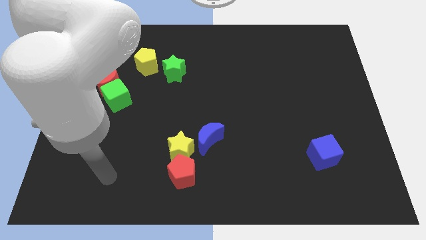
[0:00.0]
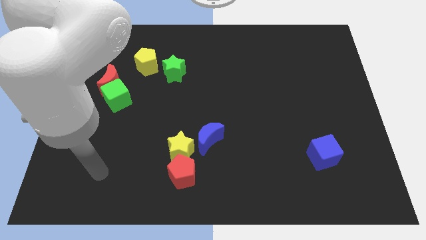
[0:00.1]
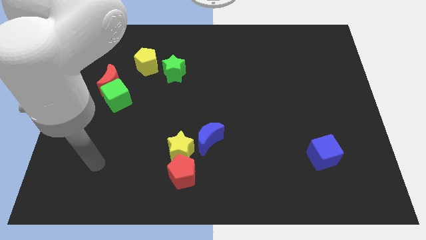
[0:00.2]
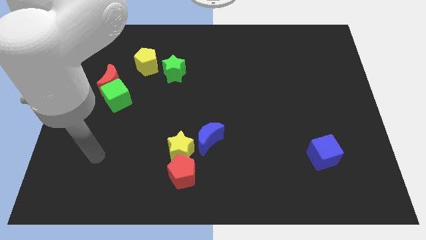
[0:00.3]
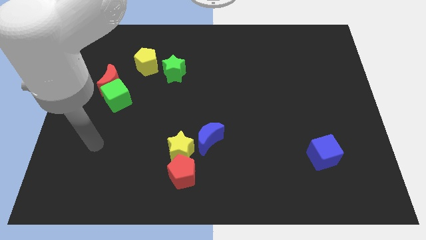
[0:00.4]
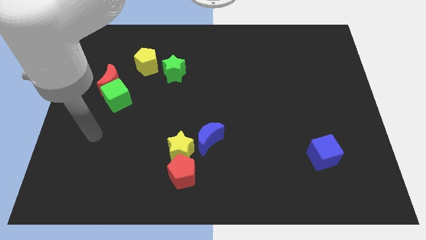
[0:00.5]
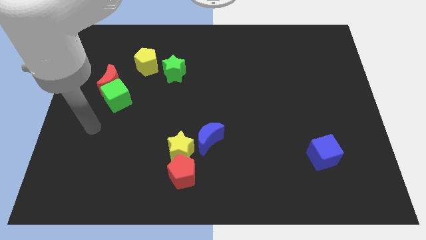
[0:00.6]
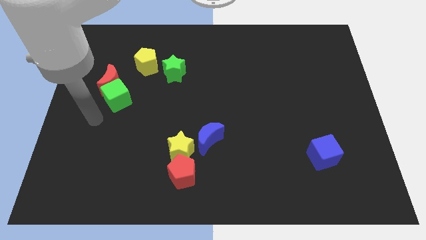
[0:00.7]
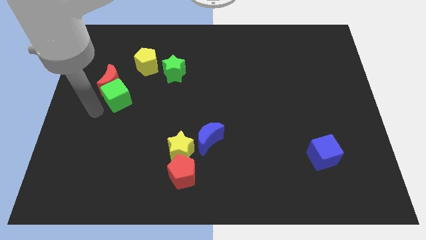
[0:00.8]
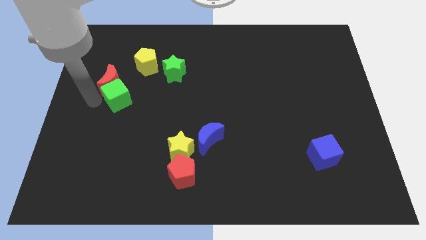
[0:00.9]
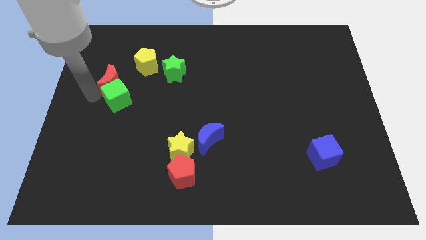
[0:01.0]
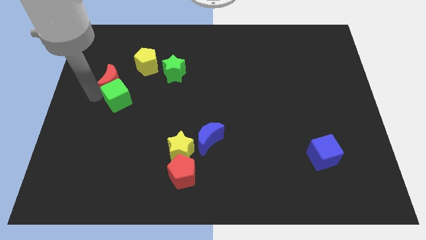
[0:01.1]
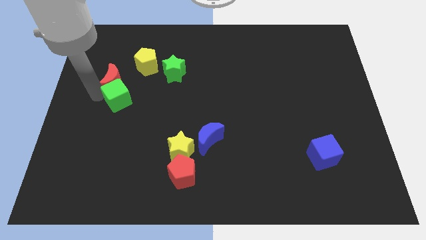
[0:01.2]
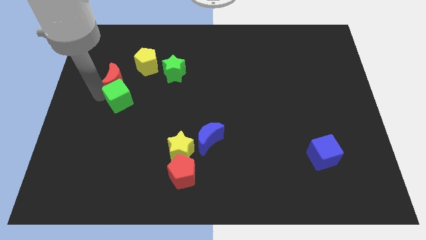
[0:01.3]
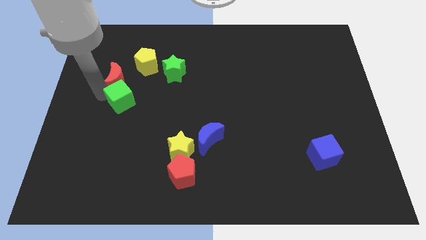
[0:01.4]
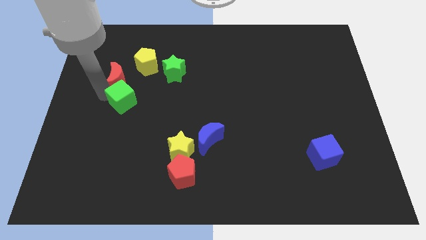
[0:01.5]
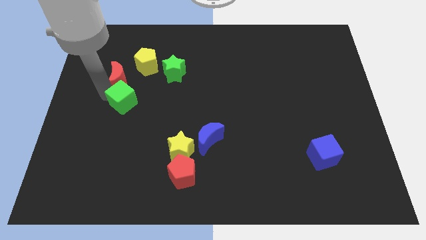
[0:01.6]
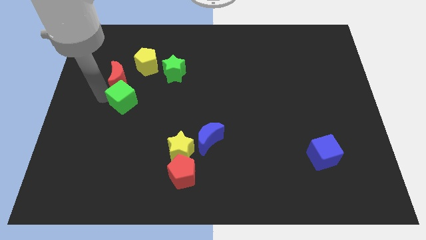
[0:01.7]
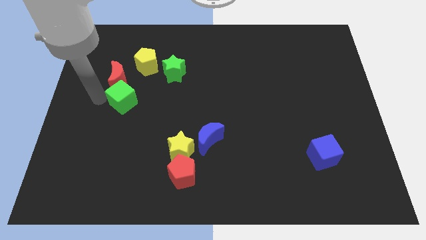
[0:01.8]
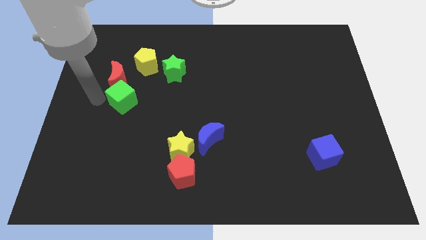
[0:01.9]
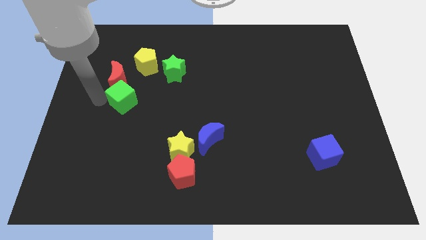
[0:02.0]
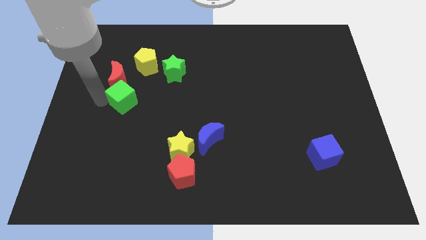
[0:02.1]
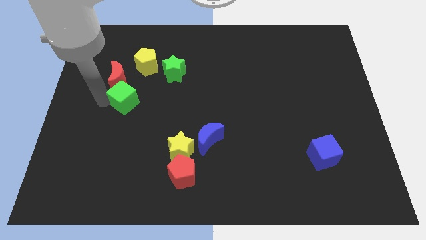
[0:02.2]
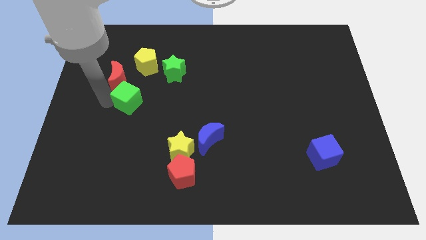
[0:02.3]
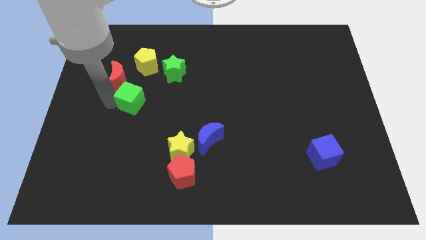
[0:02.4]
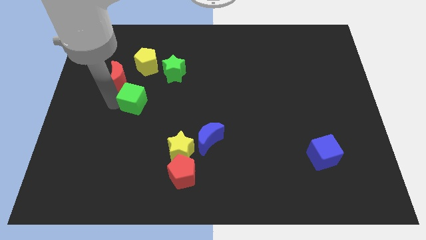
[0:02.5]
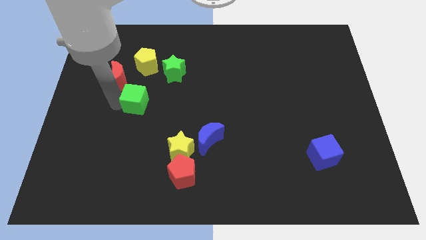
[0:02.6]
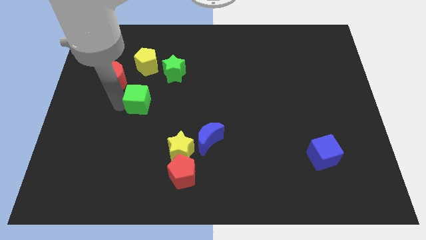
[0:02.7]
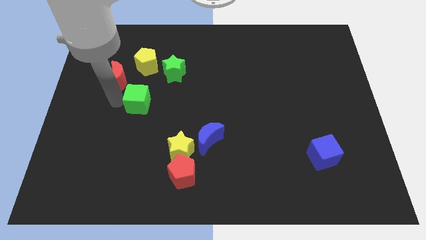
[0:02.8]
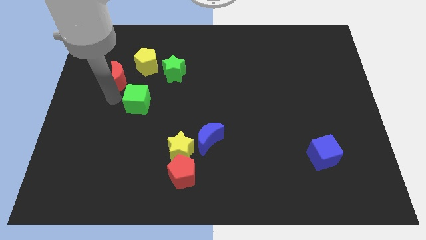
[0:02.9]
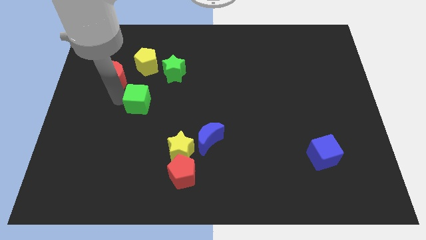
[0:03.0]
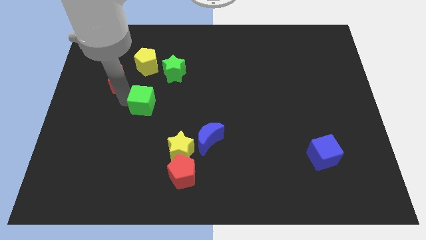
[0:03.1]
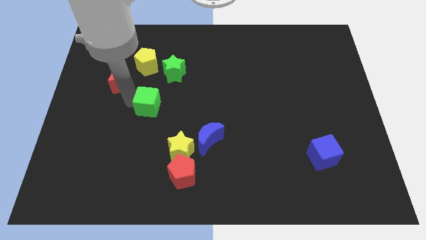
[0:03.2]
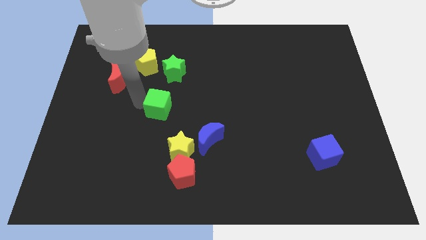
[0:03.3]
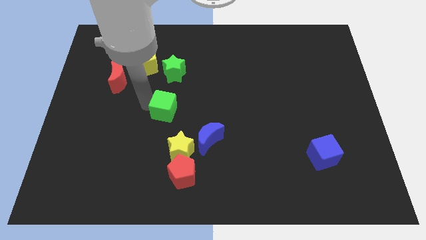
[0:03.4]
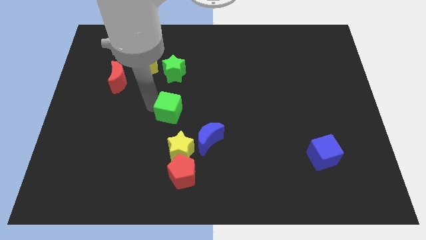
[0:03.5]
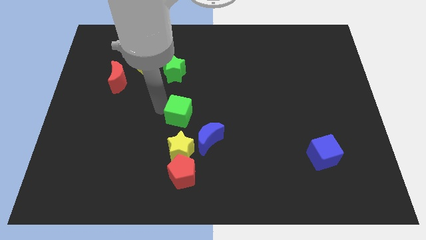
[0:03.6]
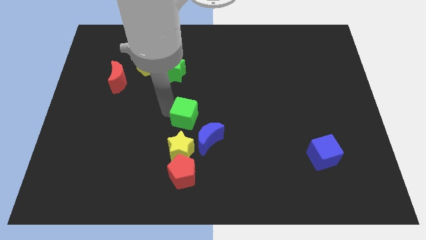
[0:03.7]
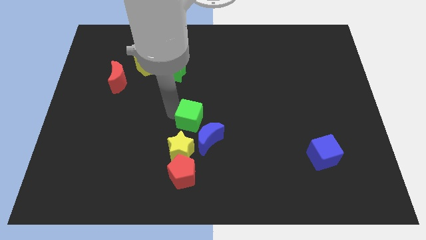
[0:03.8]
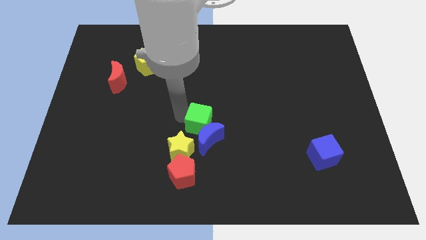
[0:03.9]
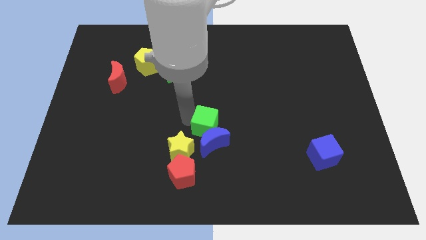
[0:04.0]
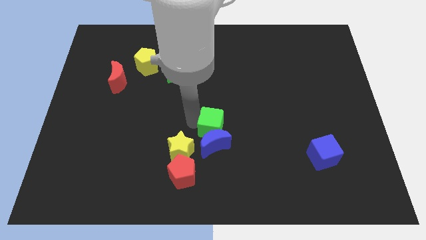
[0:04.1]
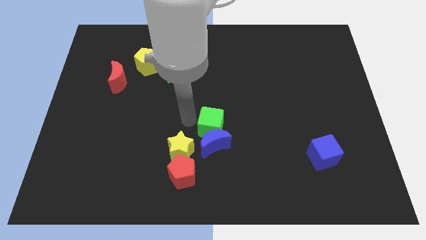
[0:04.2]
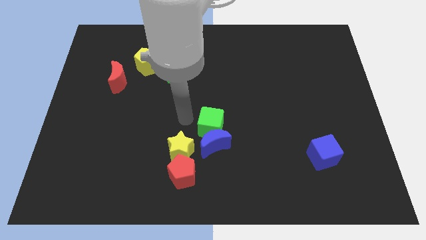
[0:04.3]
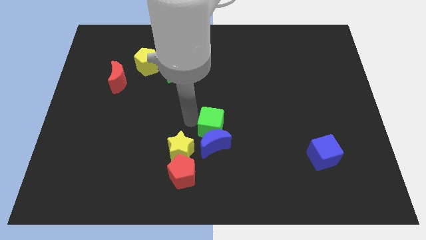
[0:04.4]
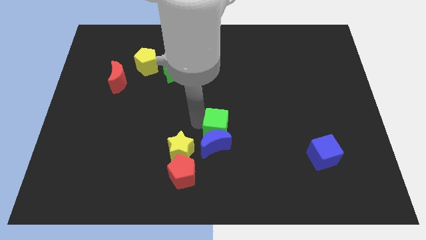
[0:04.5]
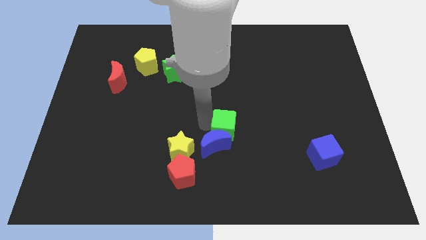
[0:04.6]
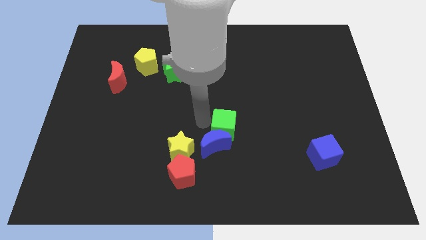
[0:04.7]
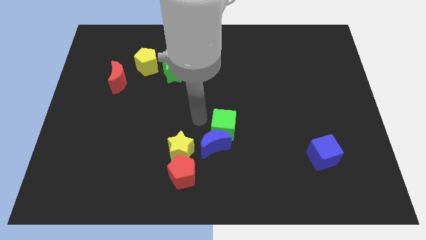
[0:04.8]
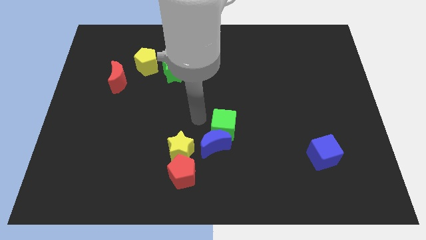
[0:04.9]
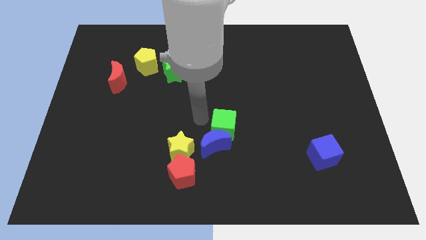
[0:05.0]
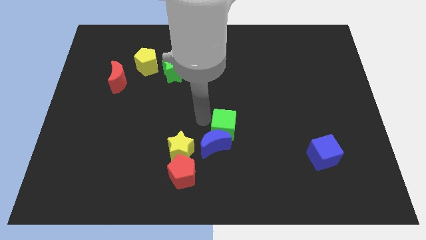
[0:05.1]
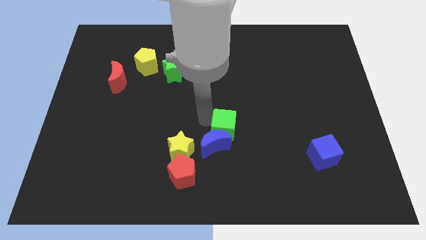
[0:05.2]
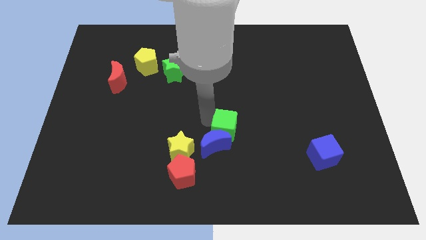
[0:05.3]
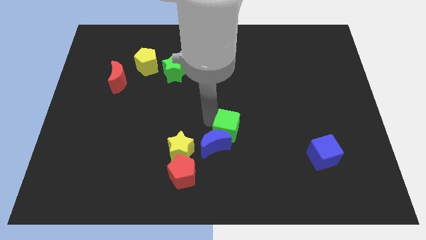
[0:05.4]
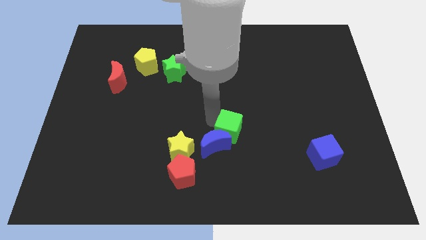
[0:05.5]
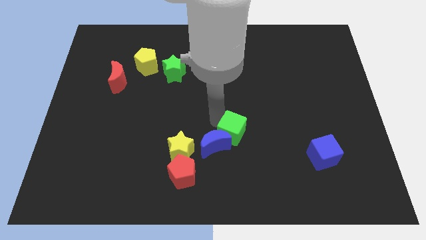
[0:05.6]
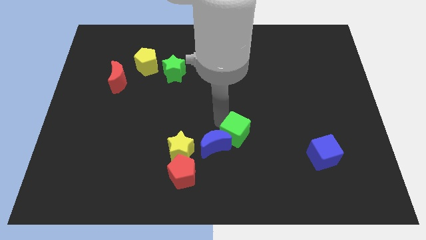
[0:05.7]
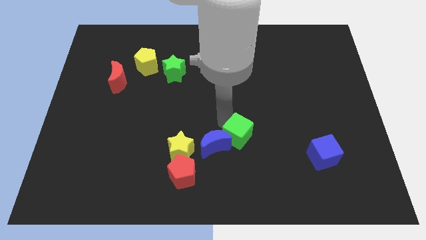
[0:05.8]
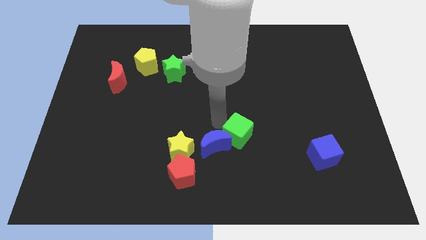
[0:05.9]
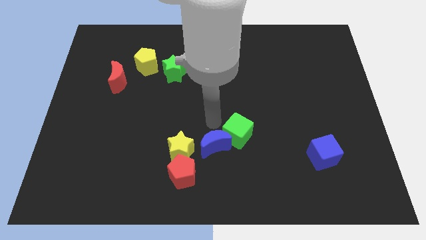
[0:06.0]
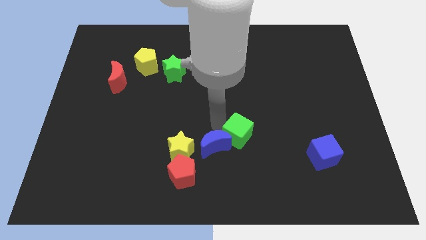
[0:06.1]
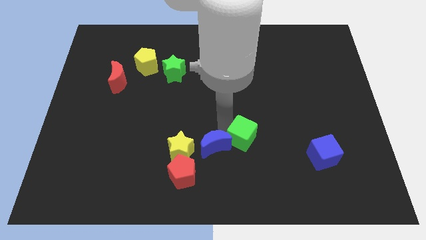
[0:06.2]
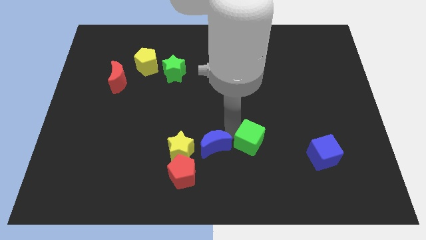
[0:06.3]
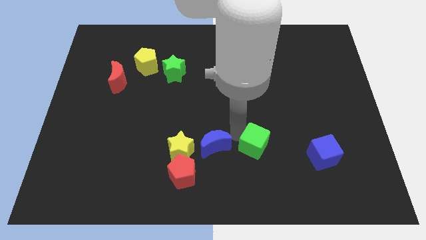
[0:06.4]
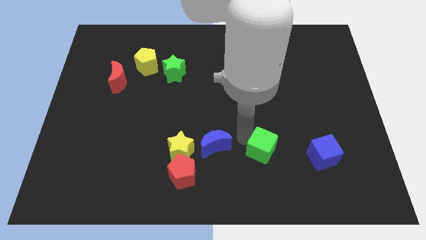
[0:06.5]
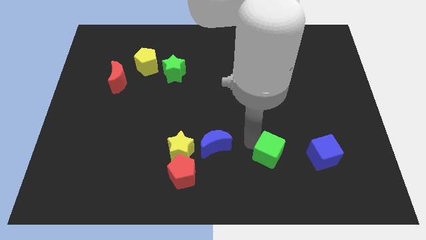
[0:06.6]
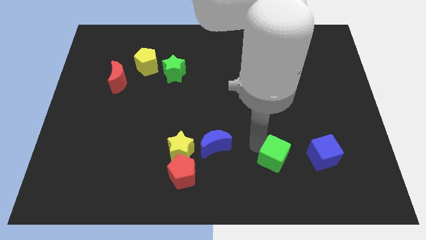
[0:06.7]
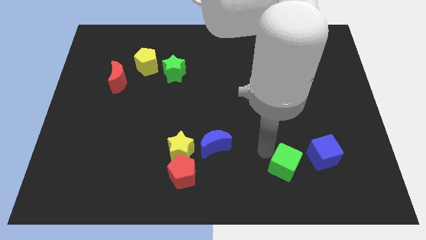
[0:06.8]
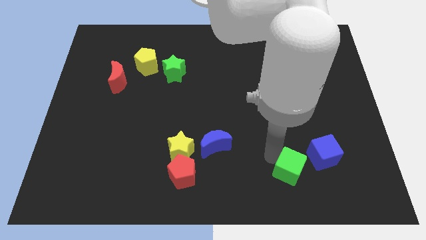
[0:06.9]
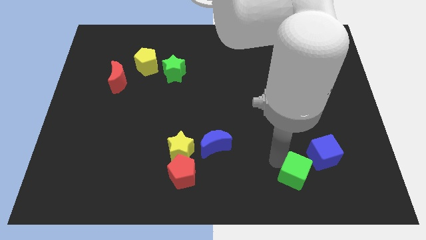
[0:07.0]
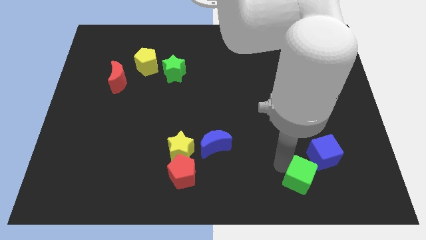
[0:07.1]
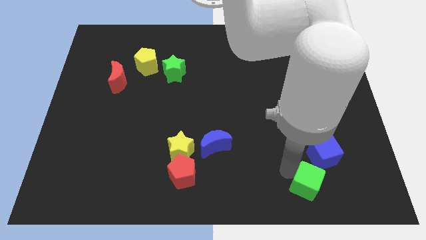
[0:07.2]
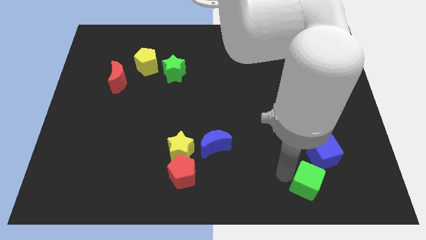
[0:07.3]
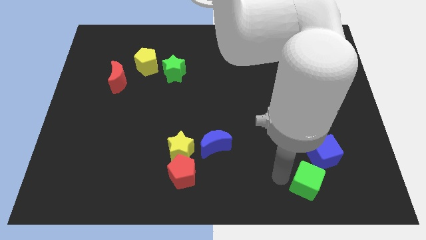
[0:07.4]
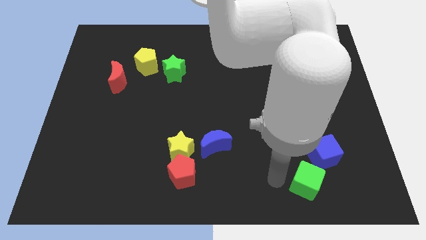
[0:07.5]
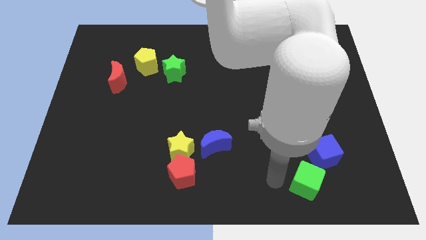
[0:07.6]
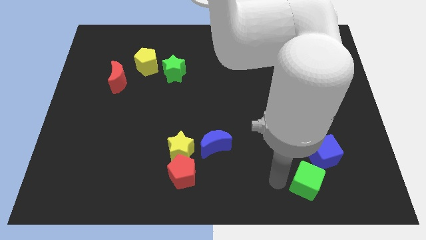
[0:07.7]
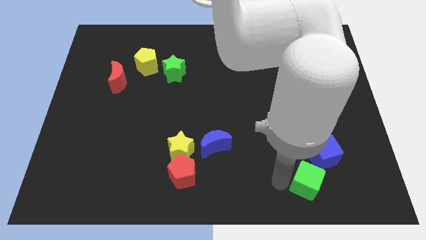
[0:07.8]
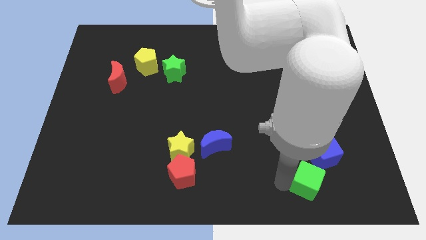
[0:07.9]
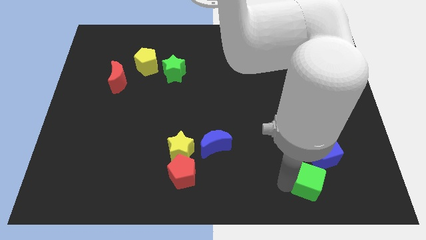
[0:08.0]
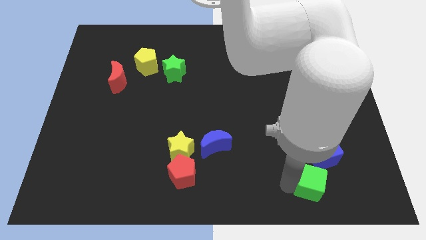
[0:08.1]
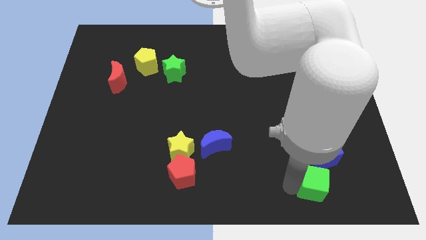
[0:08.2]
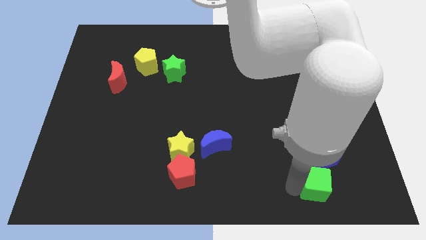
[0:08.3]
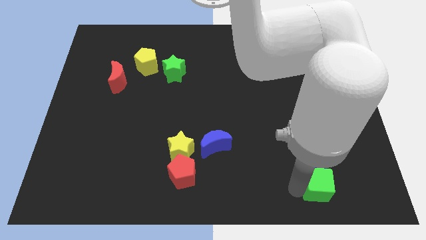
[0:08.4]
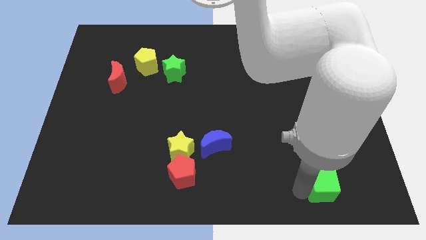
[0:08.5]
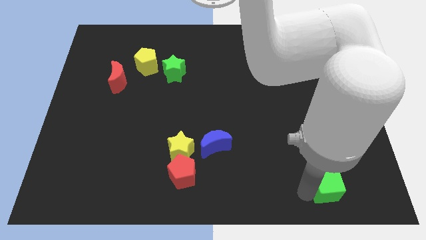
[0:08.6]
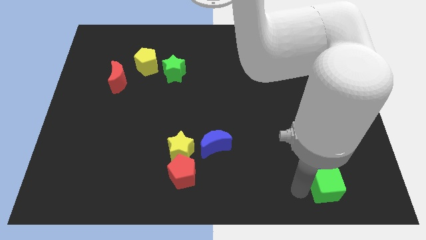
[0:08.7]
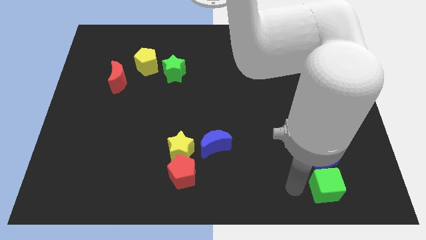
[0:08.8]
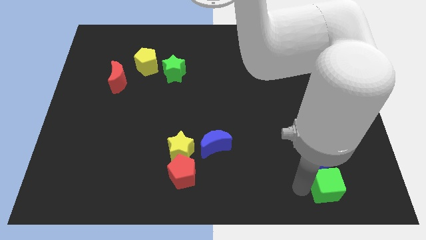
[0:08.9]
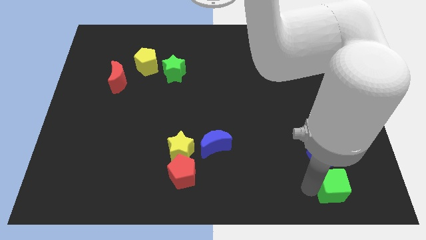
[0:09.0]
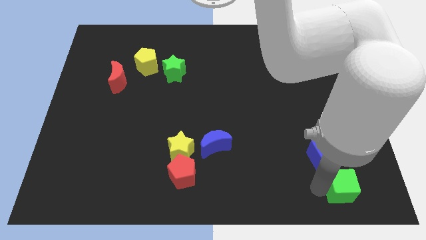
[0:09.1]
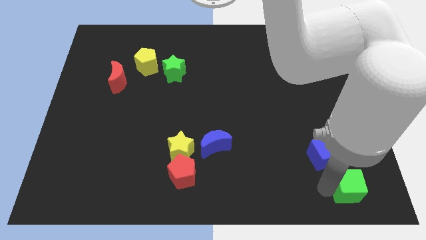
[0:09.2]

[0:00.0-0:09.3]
slide the green cube to the lower right corner
